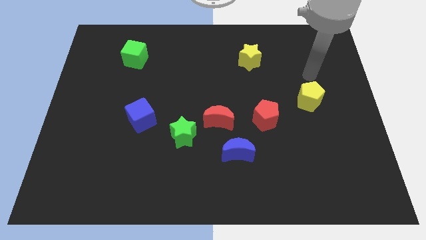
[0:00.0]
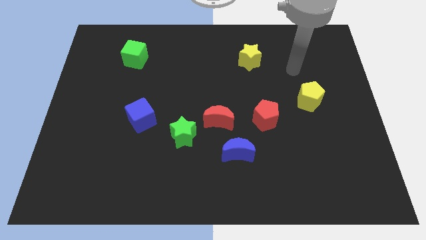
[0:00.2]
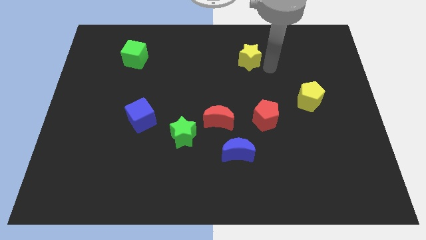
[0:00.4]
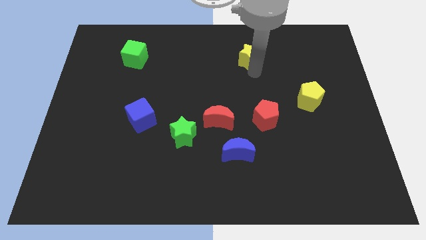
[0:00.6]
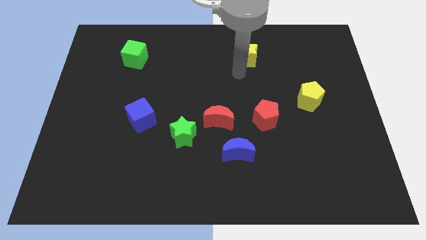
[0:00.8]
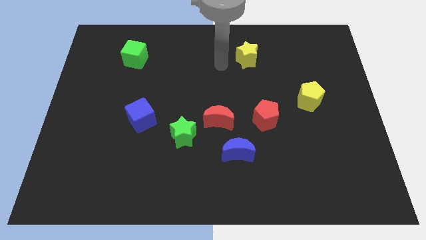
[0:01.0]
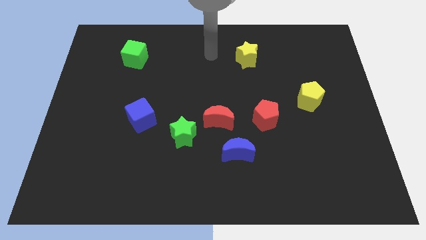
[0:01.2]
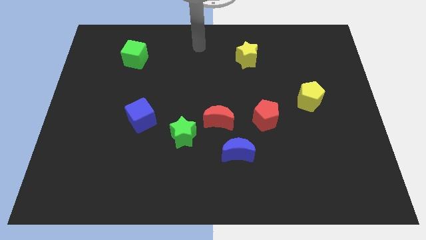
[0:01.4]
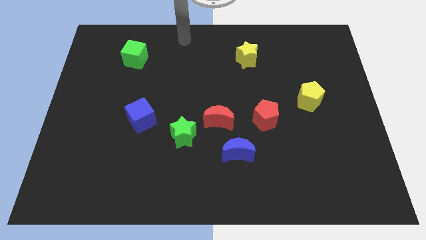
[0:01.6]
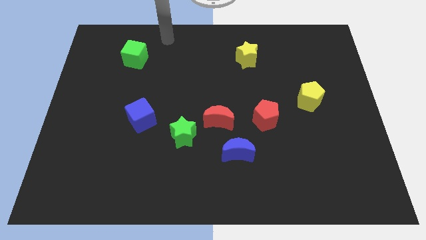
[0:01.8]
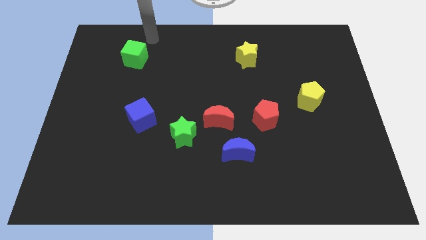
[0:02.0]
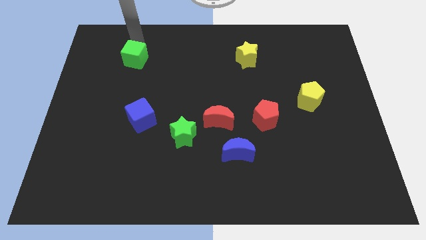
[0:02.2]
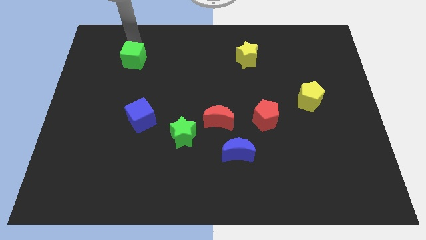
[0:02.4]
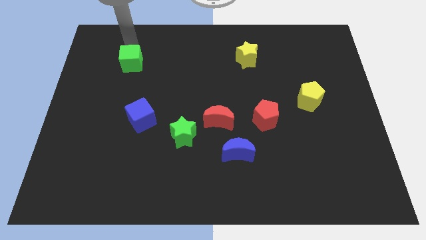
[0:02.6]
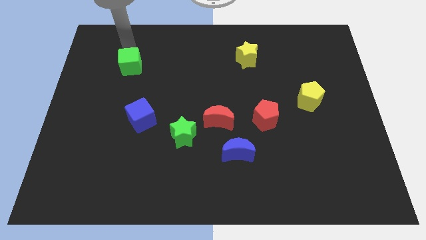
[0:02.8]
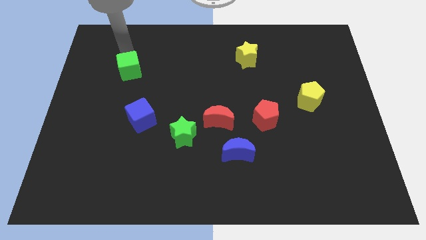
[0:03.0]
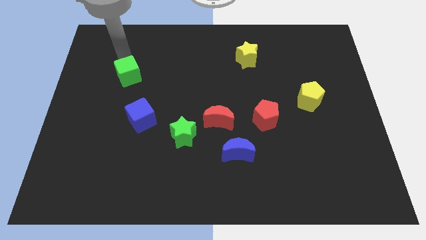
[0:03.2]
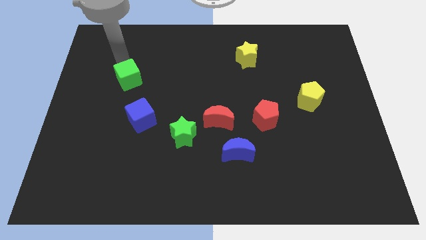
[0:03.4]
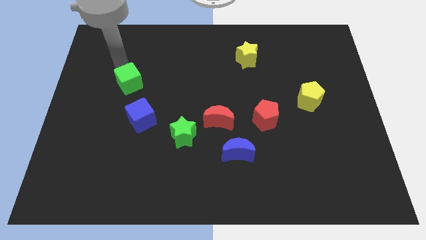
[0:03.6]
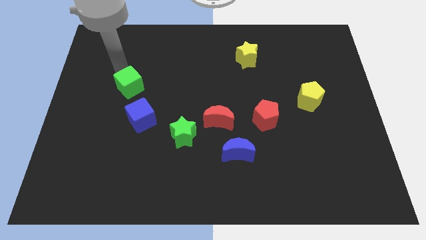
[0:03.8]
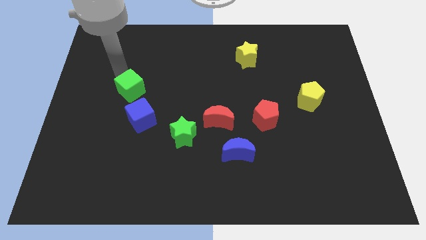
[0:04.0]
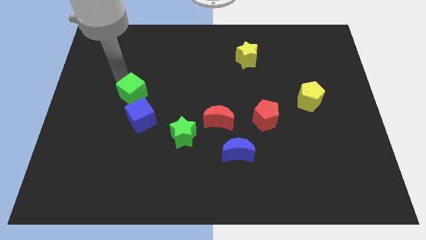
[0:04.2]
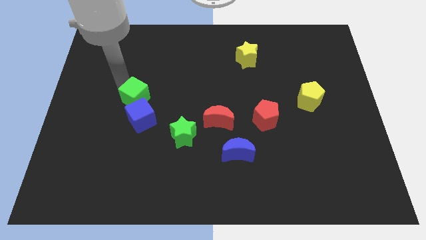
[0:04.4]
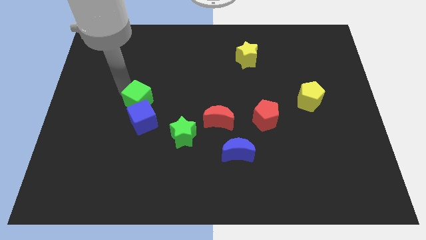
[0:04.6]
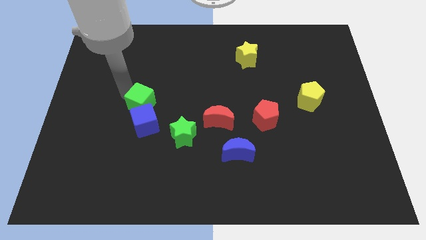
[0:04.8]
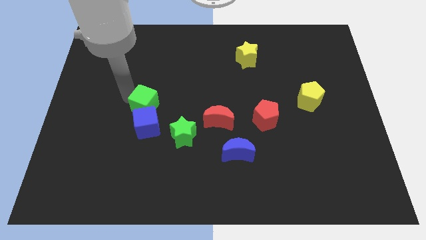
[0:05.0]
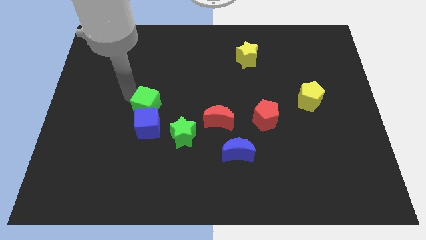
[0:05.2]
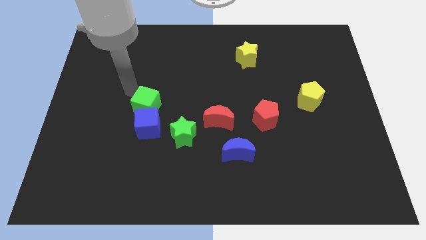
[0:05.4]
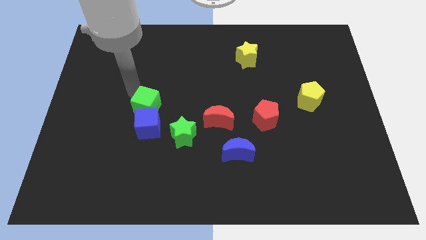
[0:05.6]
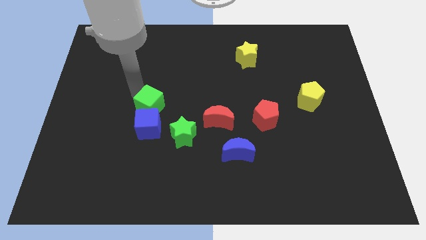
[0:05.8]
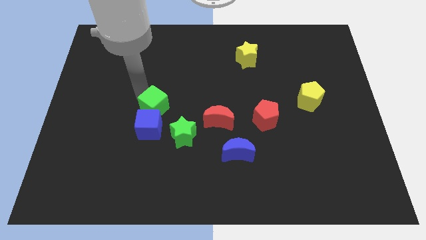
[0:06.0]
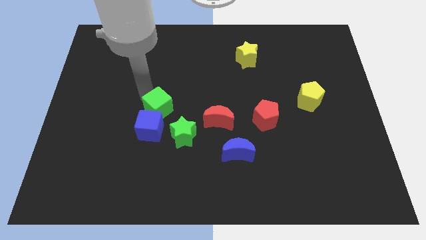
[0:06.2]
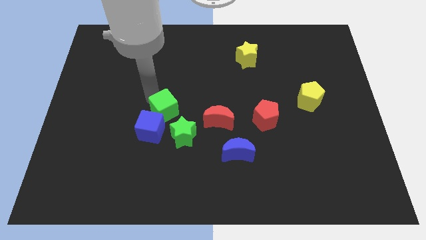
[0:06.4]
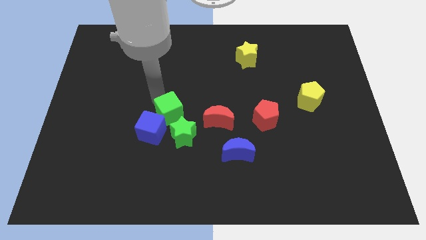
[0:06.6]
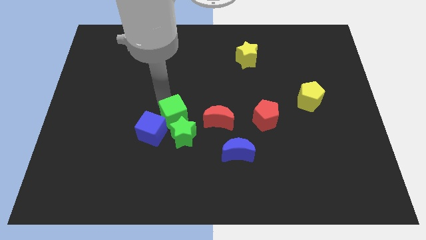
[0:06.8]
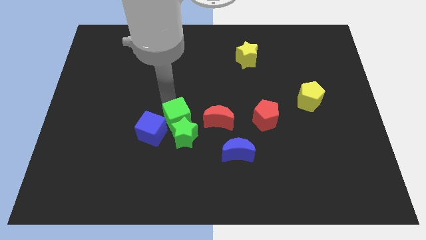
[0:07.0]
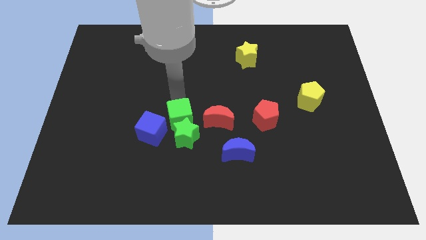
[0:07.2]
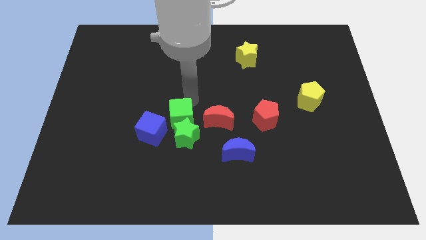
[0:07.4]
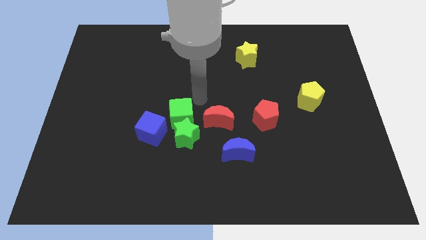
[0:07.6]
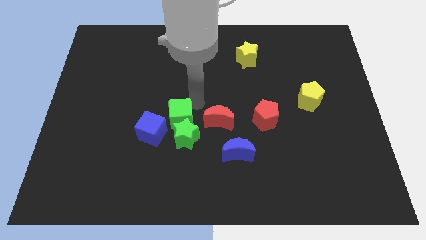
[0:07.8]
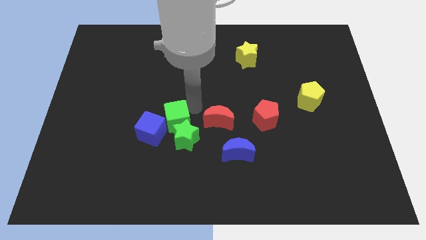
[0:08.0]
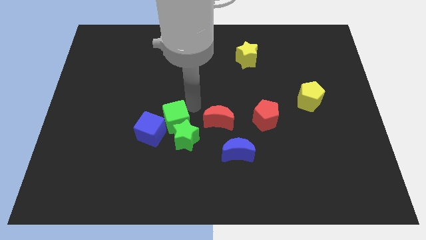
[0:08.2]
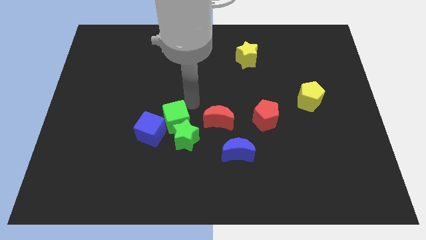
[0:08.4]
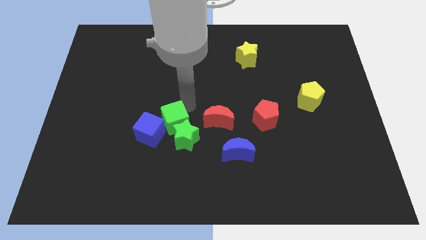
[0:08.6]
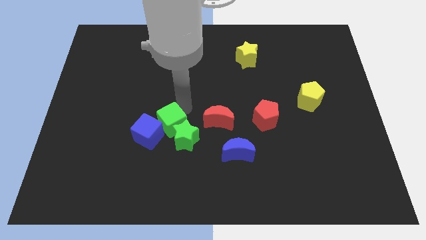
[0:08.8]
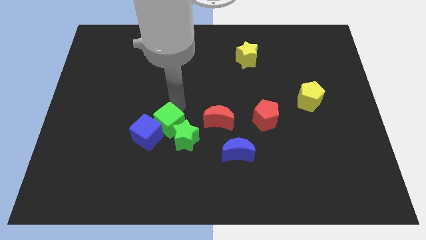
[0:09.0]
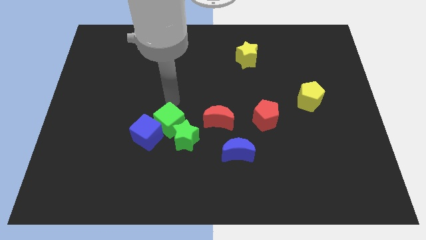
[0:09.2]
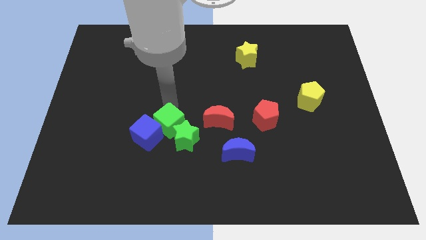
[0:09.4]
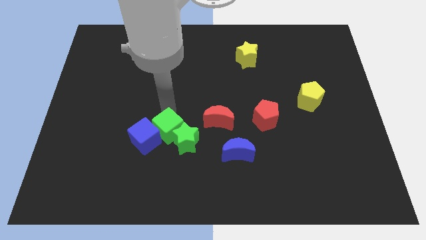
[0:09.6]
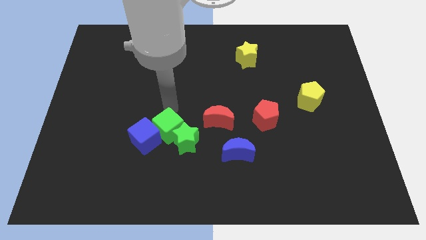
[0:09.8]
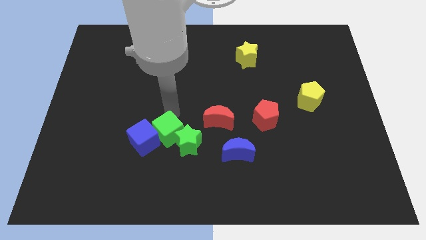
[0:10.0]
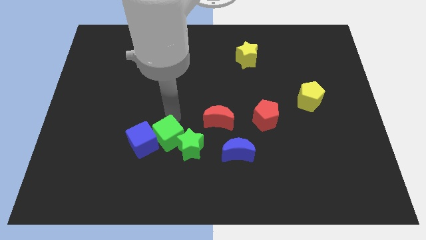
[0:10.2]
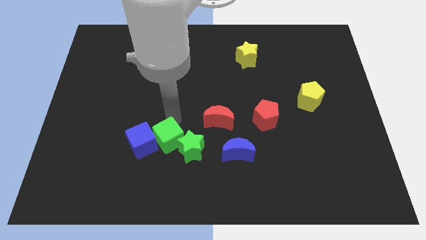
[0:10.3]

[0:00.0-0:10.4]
push the green cube to the left of the blue moon

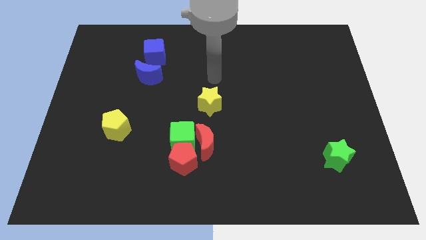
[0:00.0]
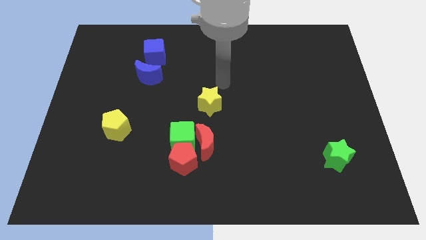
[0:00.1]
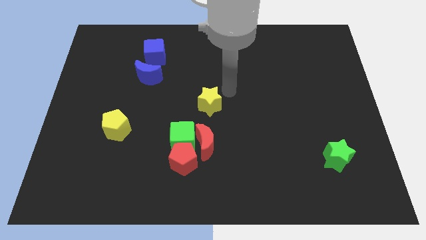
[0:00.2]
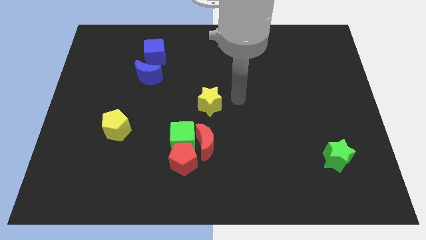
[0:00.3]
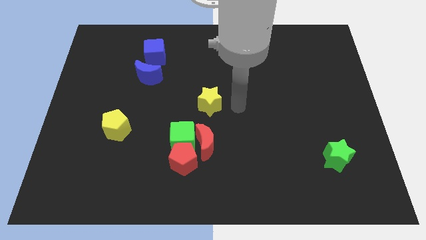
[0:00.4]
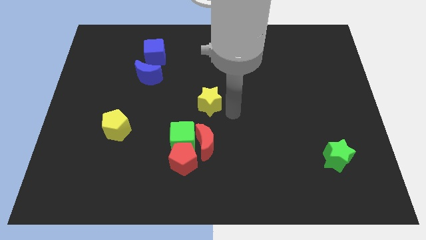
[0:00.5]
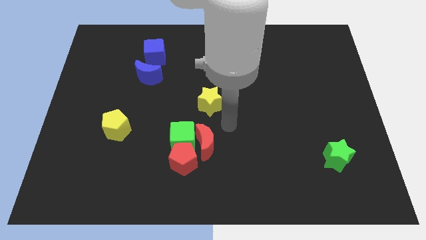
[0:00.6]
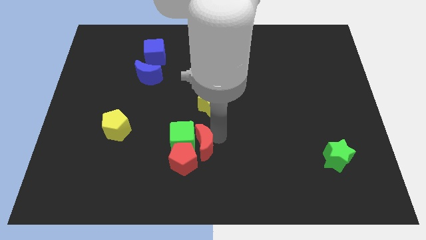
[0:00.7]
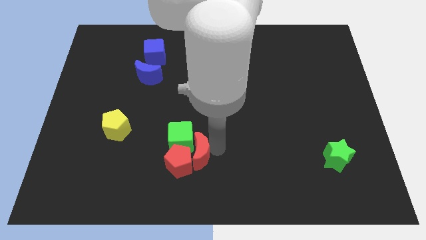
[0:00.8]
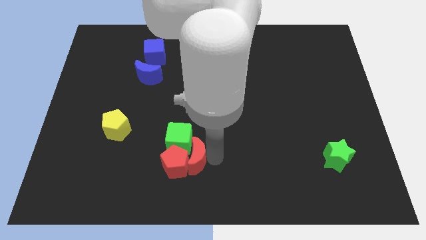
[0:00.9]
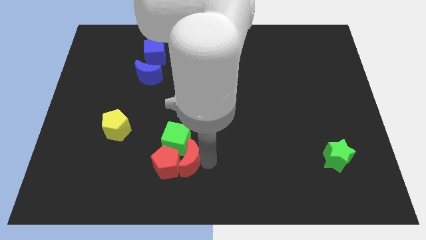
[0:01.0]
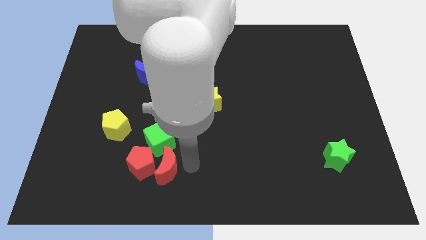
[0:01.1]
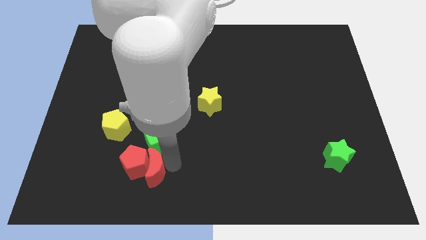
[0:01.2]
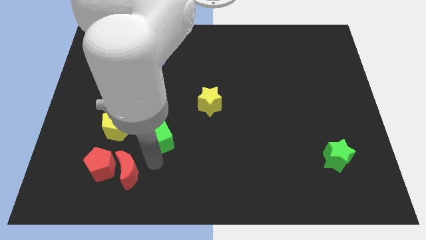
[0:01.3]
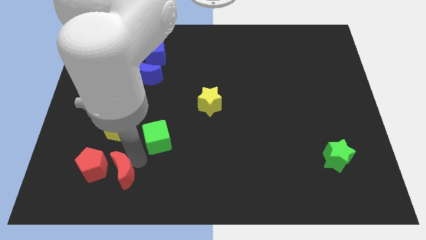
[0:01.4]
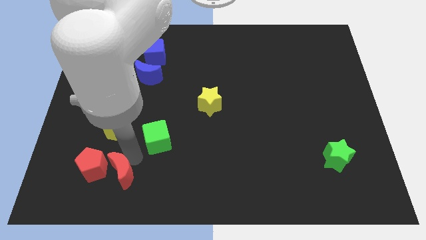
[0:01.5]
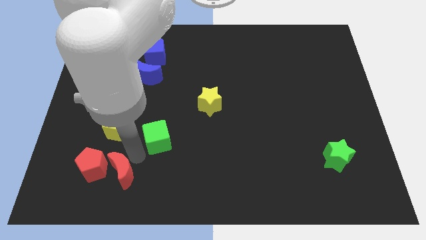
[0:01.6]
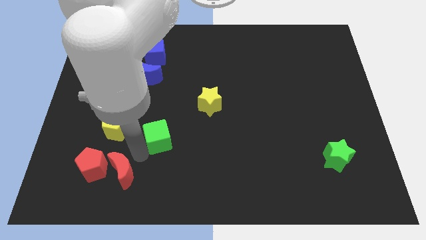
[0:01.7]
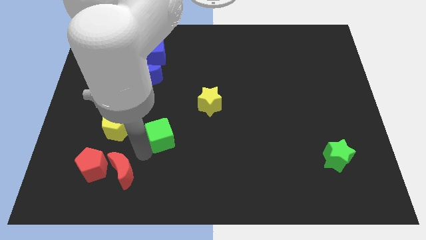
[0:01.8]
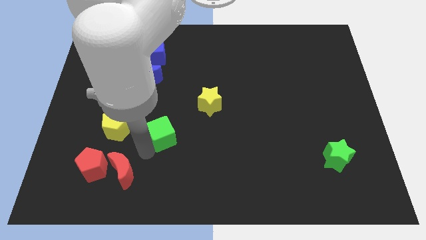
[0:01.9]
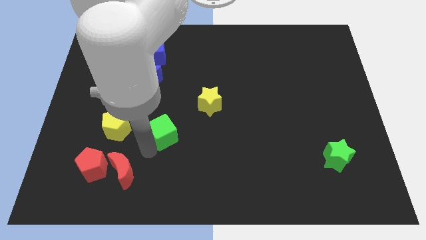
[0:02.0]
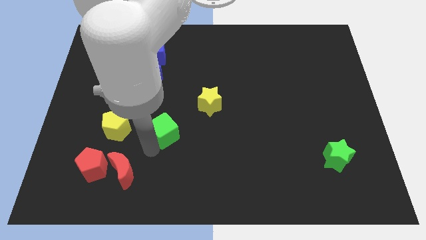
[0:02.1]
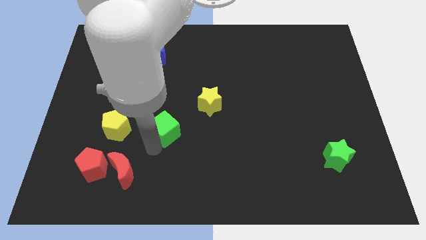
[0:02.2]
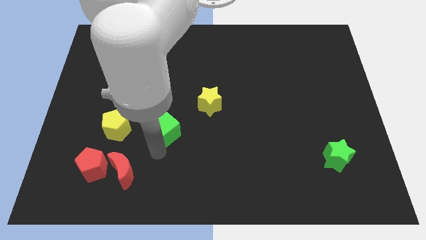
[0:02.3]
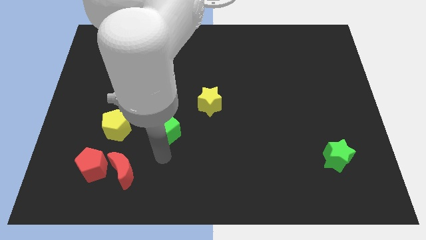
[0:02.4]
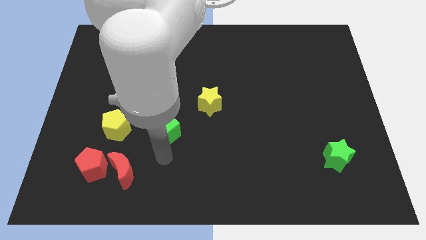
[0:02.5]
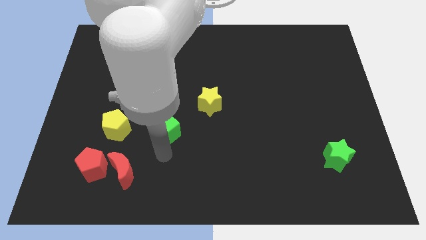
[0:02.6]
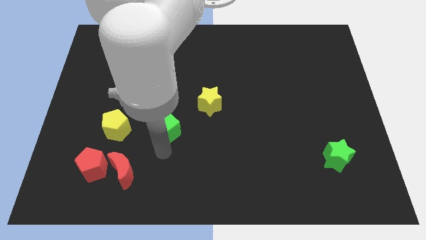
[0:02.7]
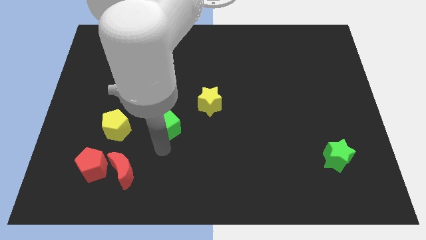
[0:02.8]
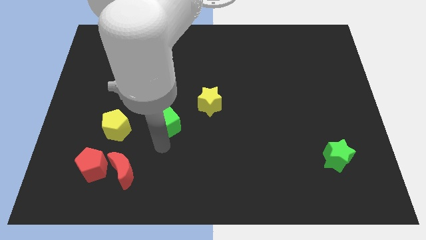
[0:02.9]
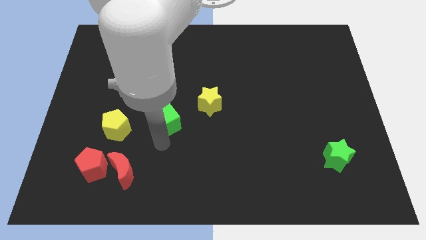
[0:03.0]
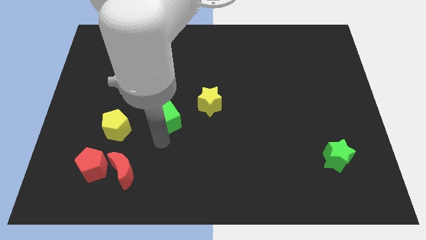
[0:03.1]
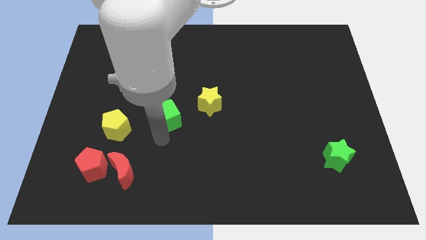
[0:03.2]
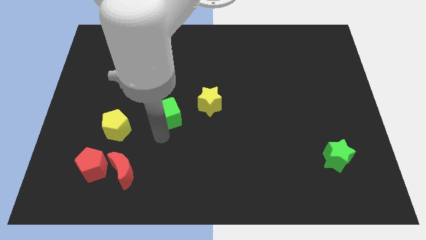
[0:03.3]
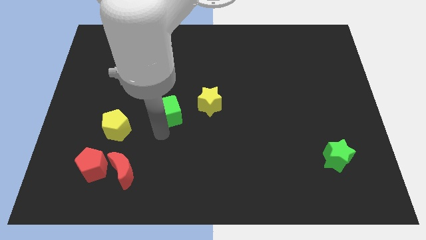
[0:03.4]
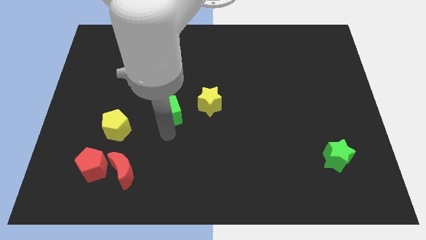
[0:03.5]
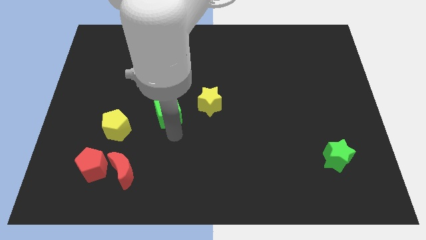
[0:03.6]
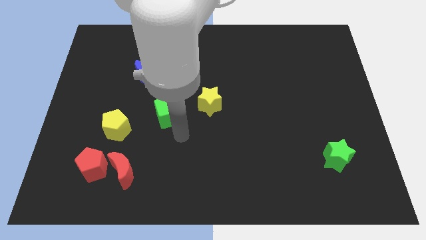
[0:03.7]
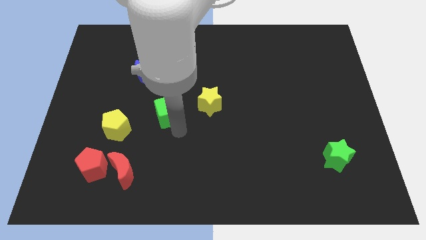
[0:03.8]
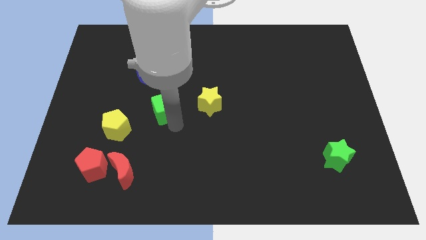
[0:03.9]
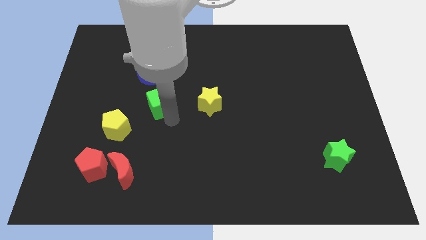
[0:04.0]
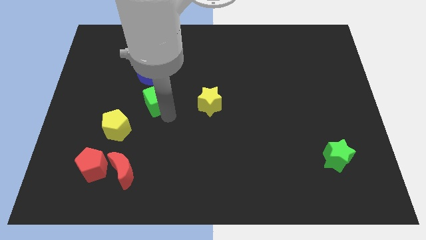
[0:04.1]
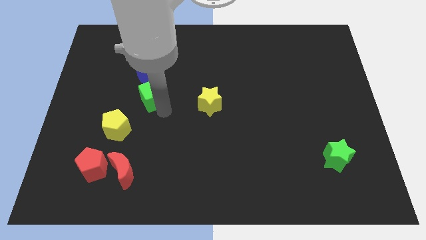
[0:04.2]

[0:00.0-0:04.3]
move the green cube to the bottom of the blue cube
